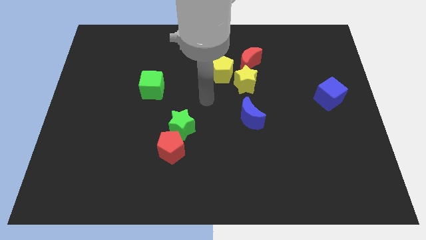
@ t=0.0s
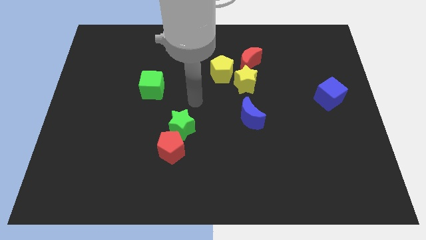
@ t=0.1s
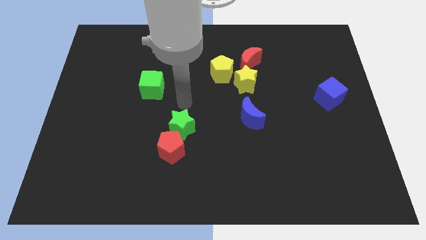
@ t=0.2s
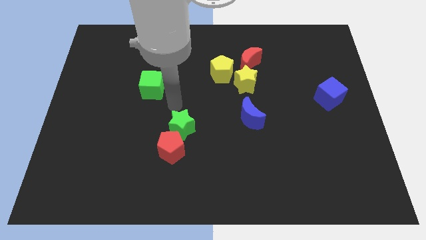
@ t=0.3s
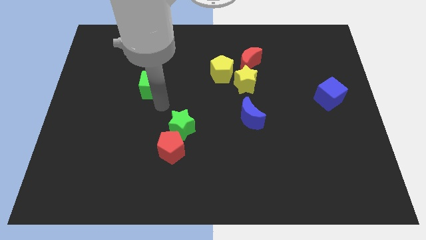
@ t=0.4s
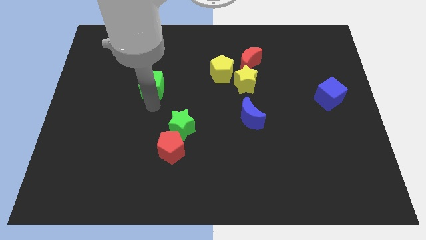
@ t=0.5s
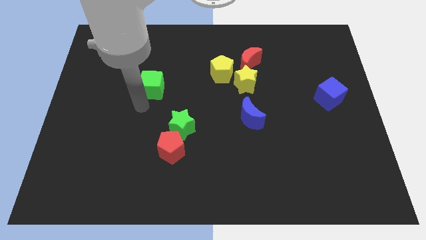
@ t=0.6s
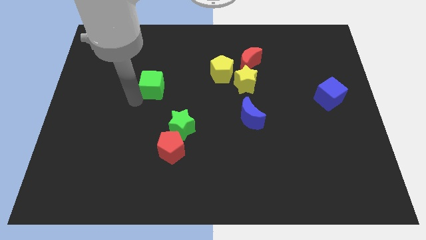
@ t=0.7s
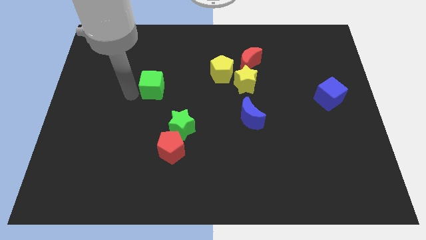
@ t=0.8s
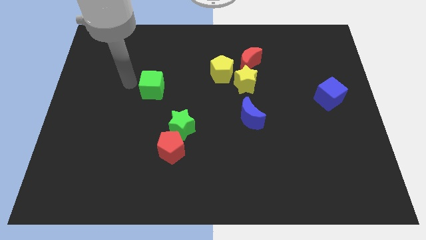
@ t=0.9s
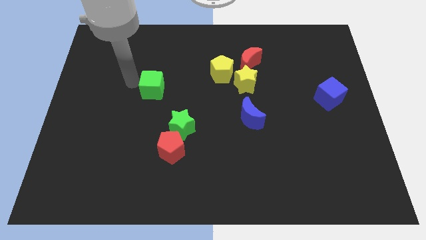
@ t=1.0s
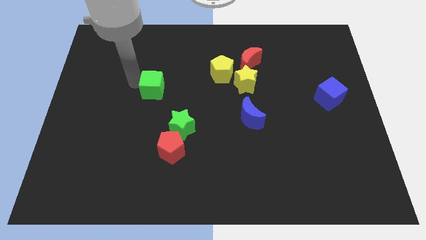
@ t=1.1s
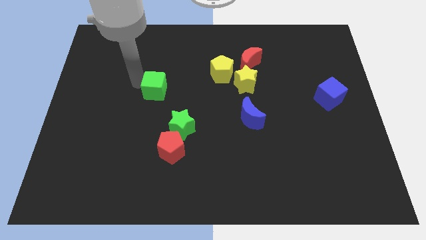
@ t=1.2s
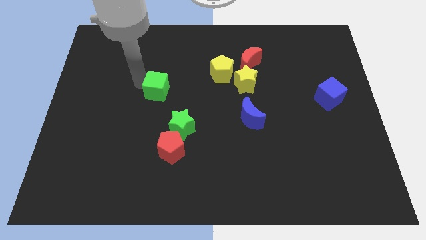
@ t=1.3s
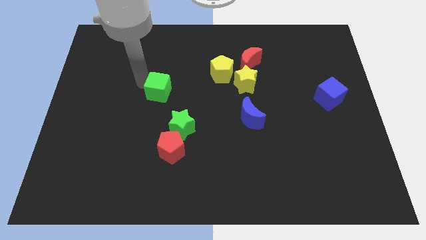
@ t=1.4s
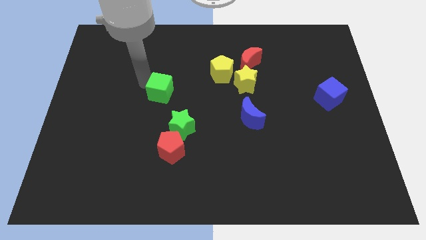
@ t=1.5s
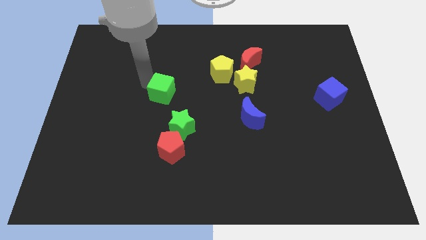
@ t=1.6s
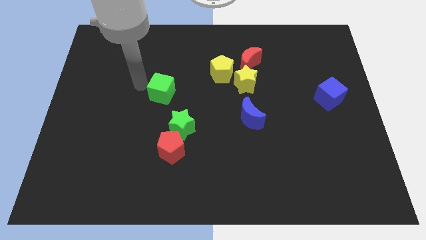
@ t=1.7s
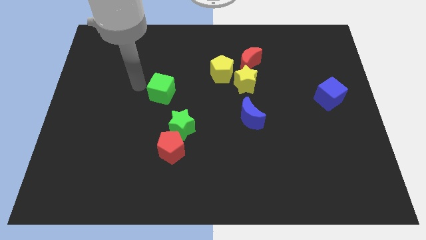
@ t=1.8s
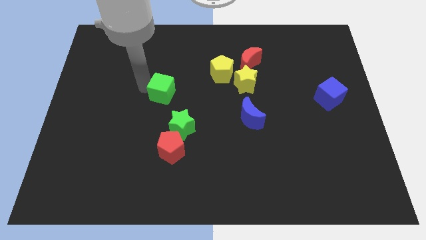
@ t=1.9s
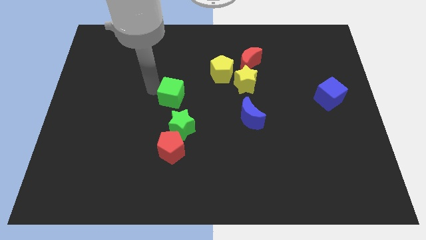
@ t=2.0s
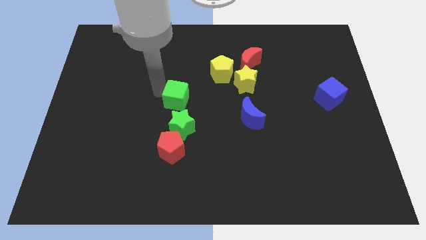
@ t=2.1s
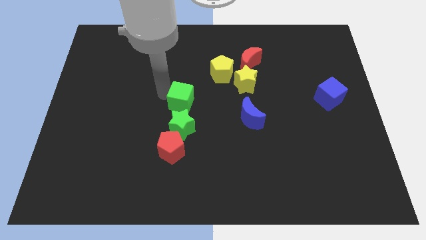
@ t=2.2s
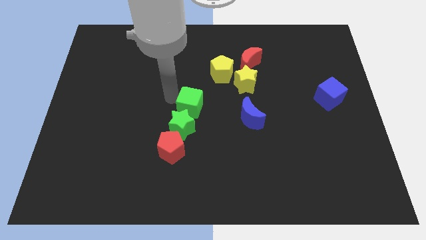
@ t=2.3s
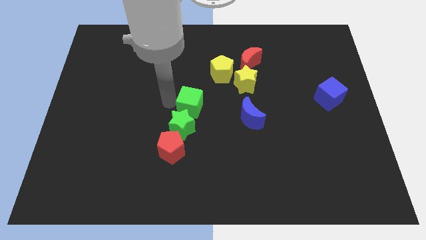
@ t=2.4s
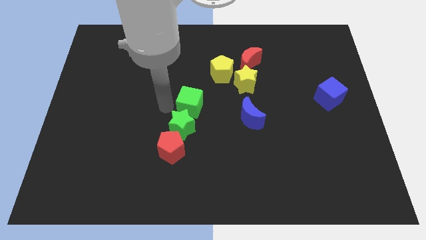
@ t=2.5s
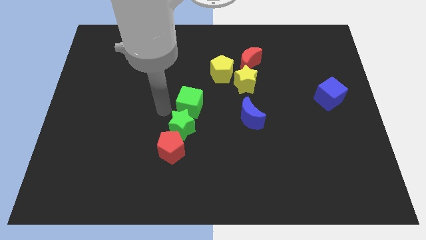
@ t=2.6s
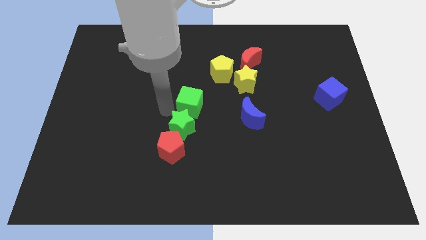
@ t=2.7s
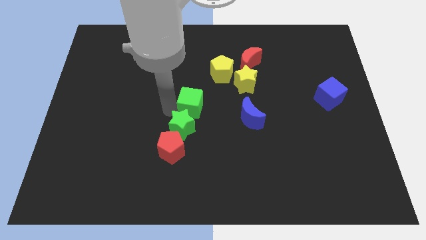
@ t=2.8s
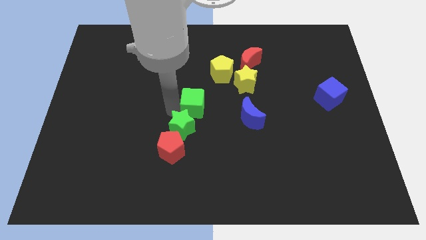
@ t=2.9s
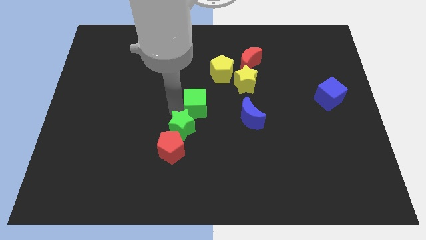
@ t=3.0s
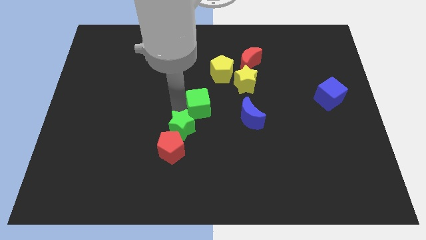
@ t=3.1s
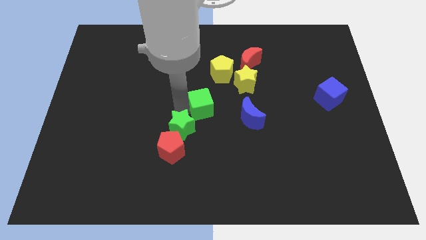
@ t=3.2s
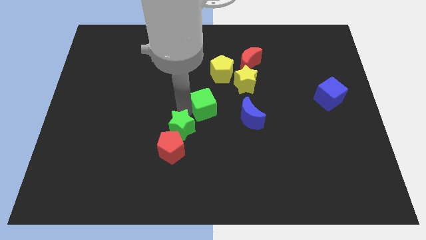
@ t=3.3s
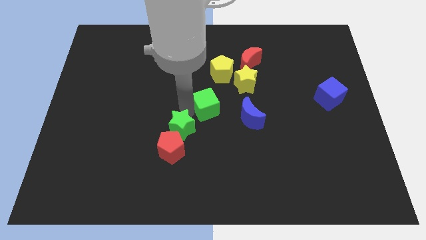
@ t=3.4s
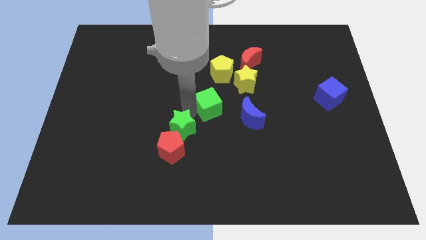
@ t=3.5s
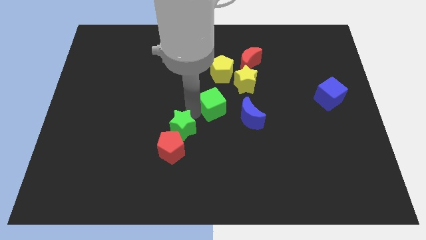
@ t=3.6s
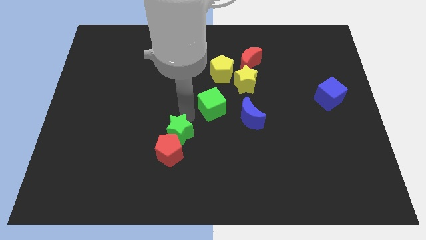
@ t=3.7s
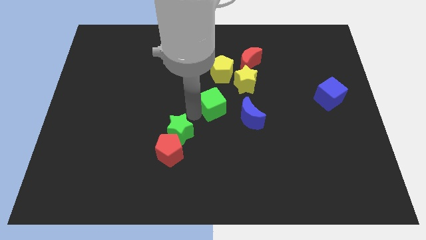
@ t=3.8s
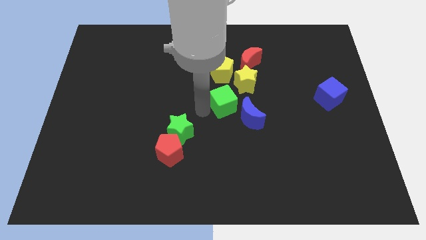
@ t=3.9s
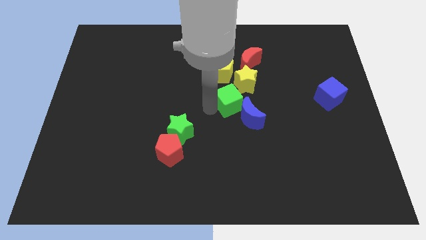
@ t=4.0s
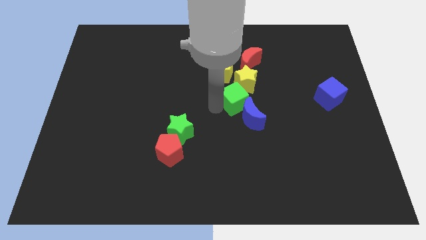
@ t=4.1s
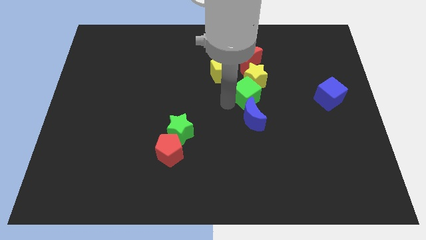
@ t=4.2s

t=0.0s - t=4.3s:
move the green cube right

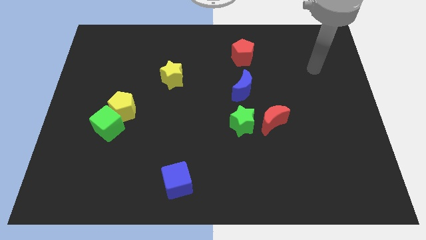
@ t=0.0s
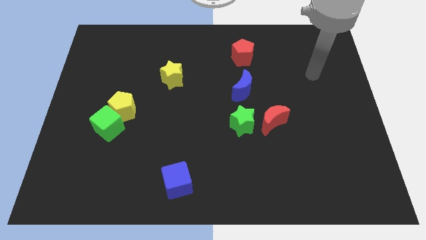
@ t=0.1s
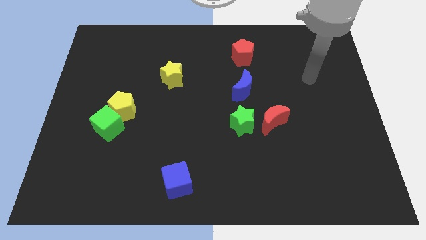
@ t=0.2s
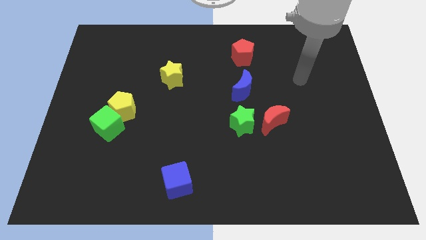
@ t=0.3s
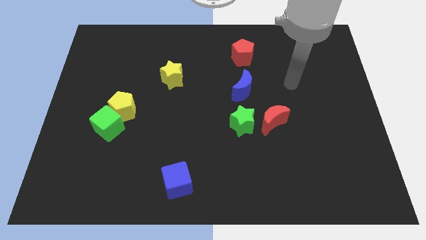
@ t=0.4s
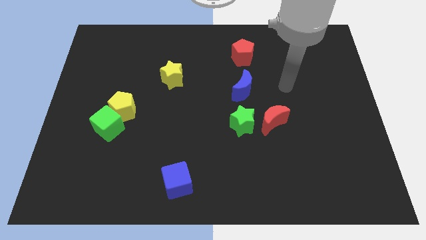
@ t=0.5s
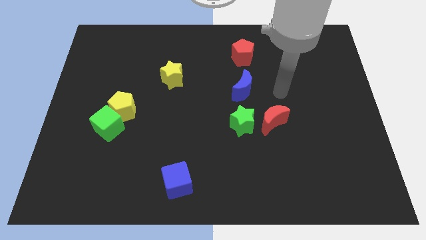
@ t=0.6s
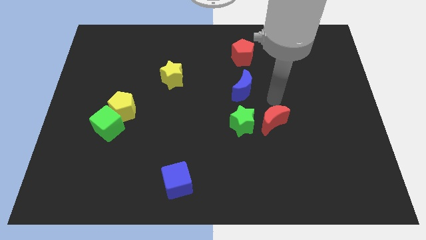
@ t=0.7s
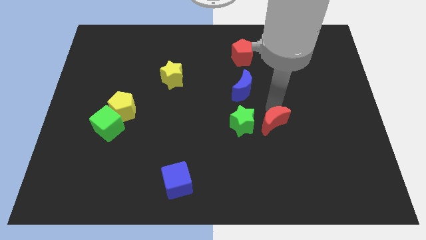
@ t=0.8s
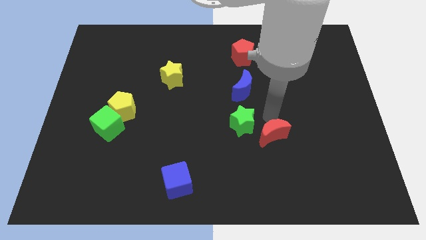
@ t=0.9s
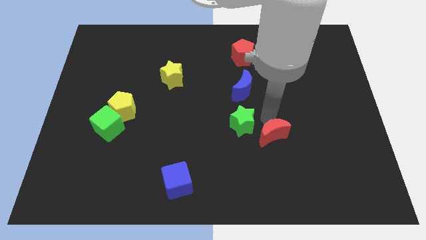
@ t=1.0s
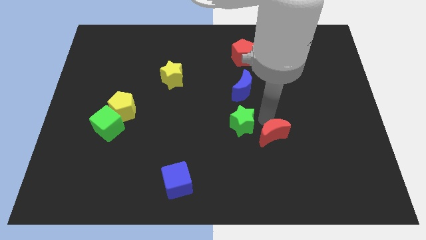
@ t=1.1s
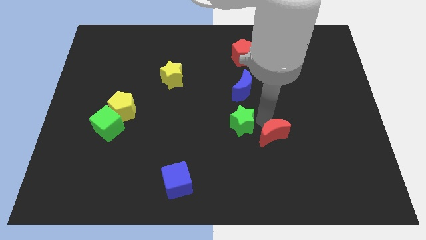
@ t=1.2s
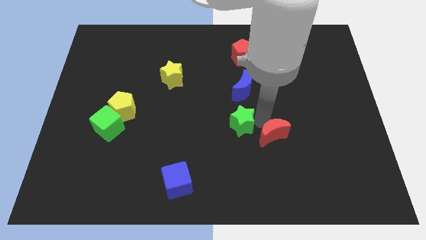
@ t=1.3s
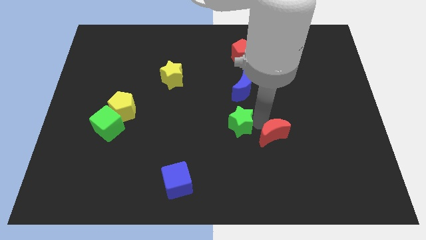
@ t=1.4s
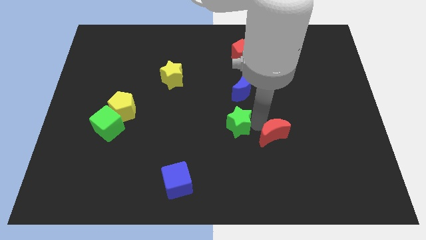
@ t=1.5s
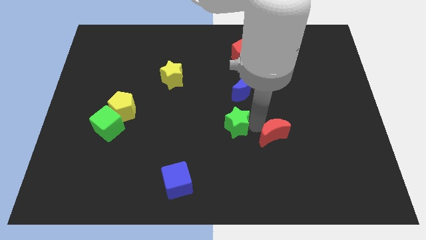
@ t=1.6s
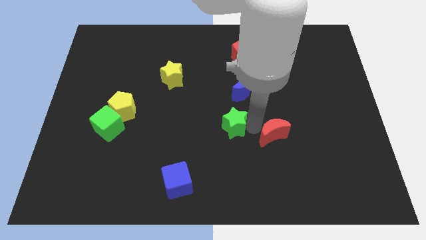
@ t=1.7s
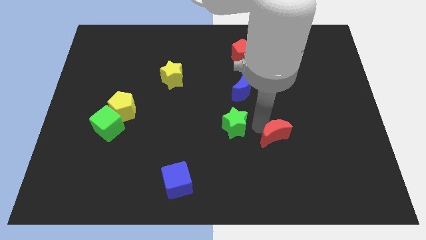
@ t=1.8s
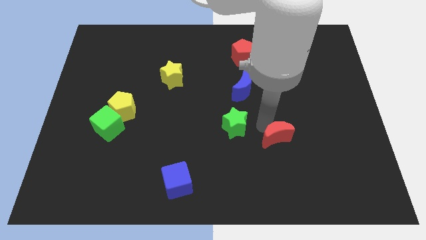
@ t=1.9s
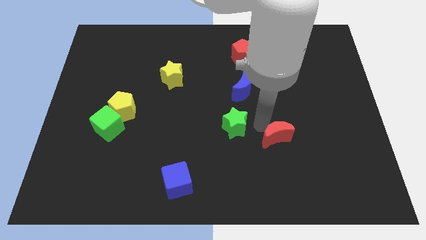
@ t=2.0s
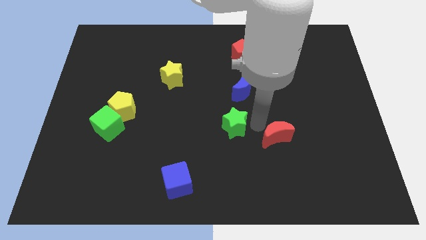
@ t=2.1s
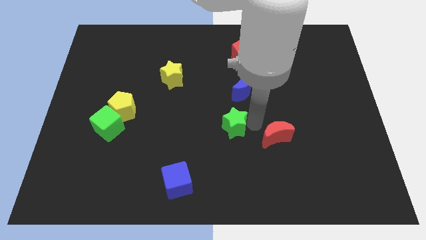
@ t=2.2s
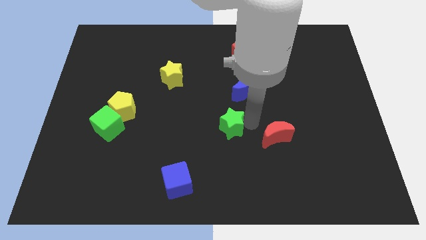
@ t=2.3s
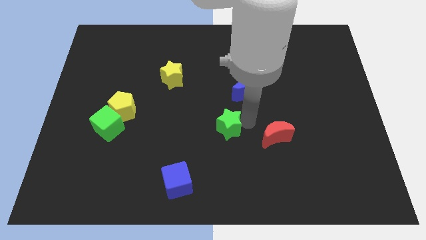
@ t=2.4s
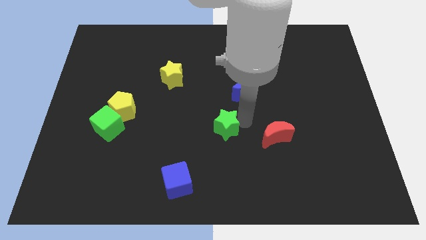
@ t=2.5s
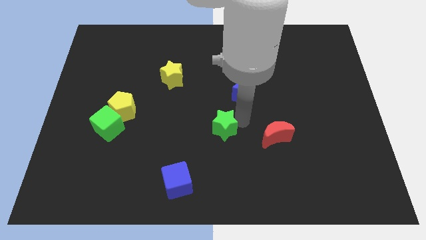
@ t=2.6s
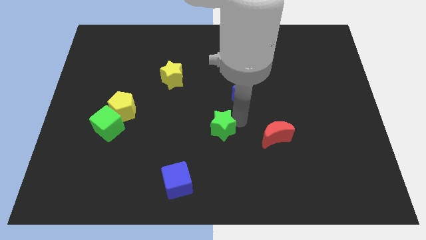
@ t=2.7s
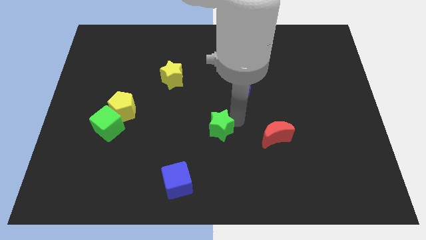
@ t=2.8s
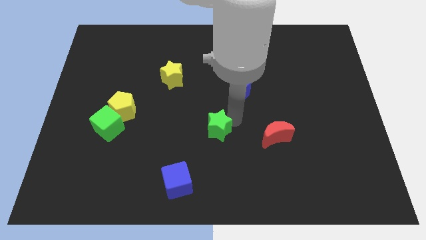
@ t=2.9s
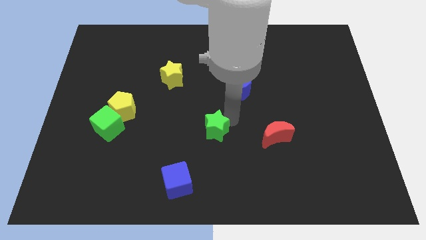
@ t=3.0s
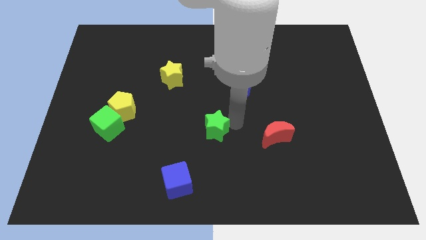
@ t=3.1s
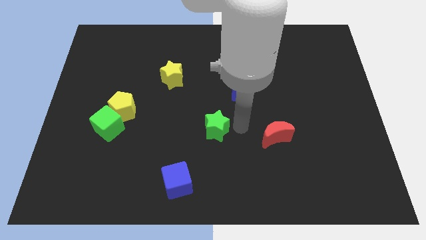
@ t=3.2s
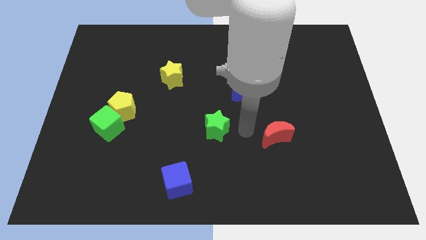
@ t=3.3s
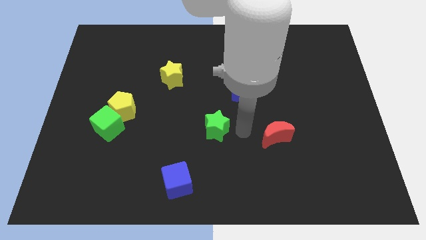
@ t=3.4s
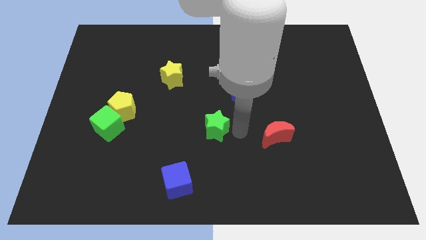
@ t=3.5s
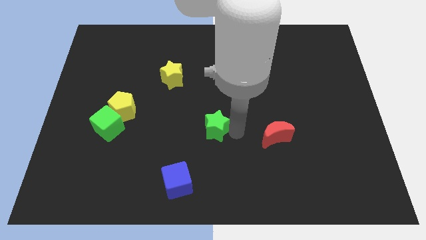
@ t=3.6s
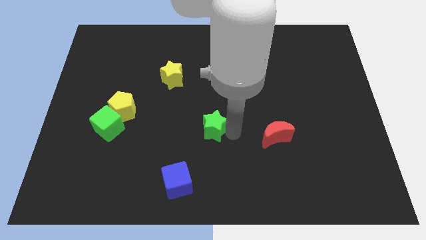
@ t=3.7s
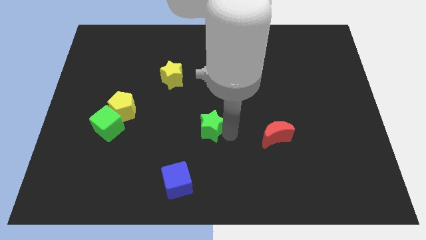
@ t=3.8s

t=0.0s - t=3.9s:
slightly push the green star to the left
